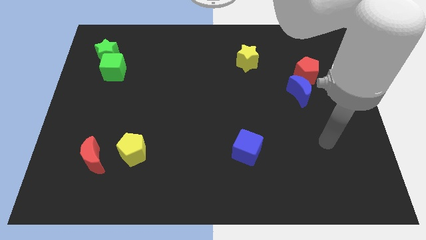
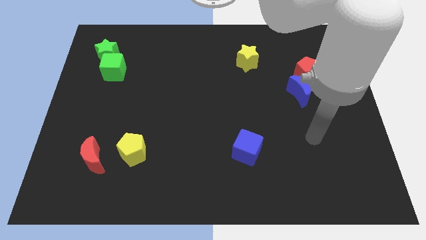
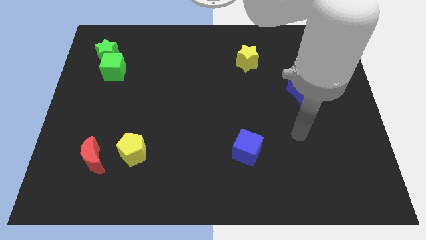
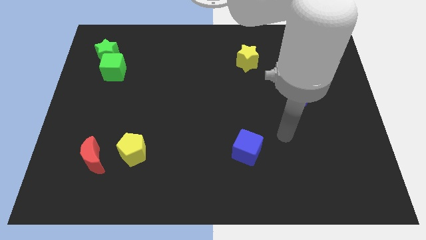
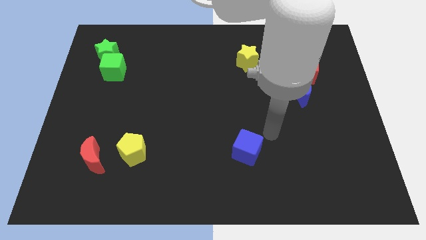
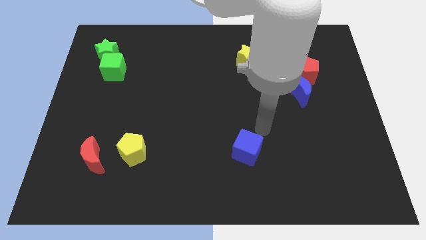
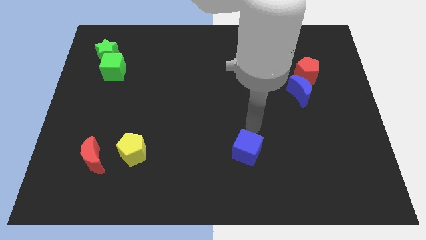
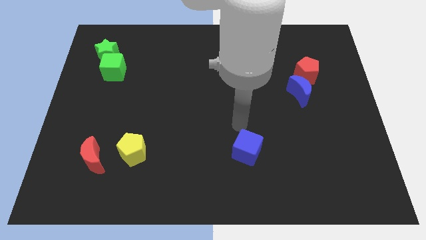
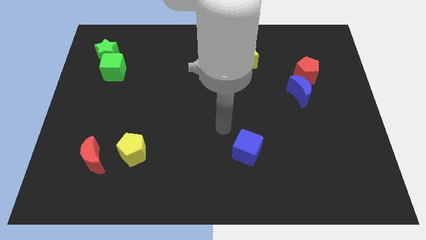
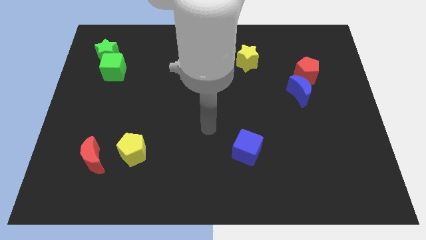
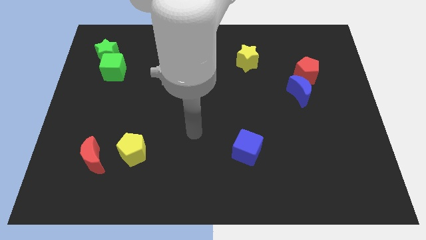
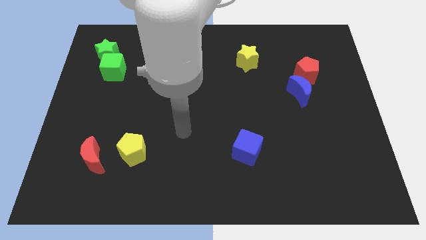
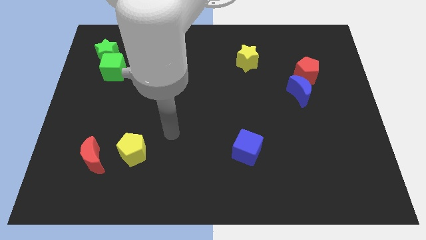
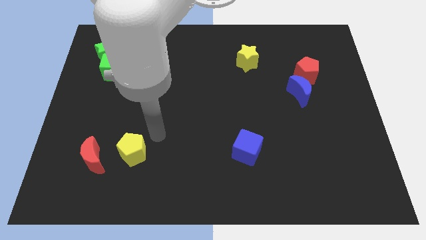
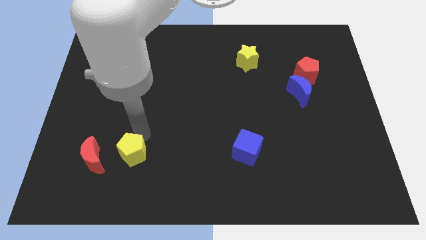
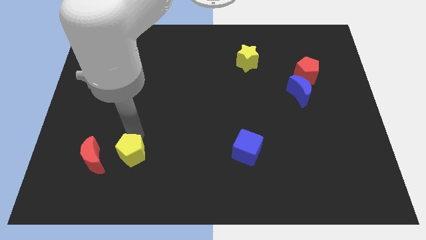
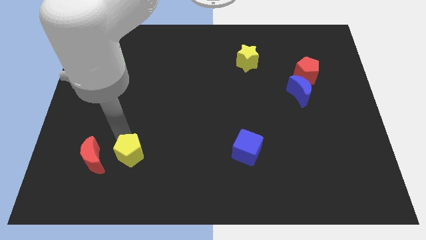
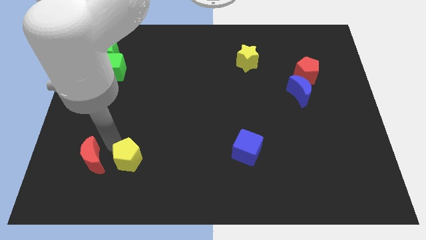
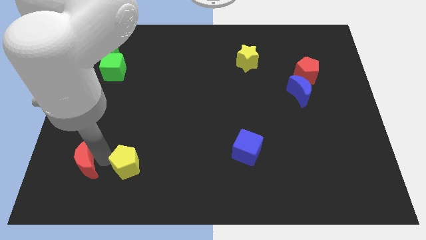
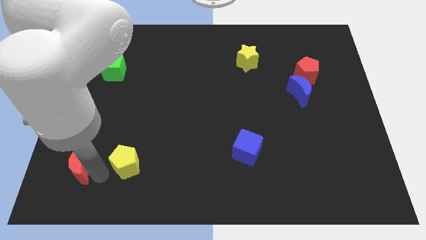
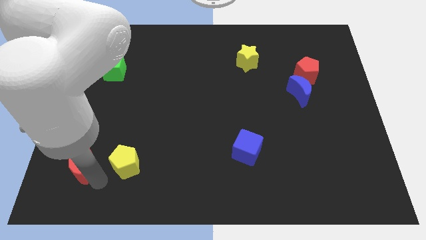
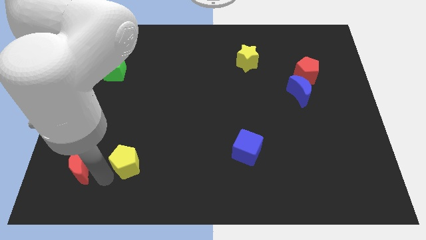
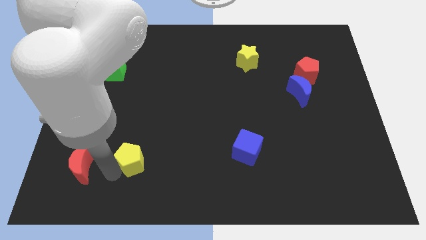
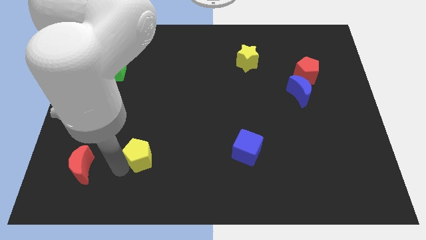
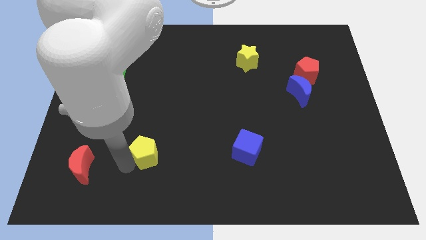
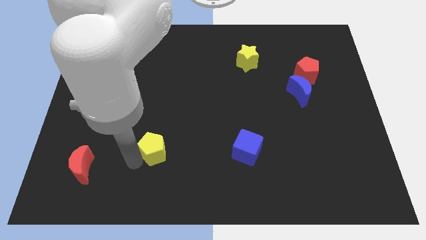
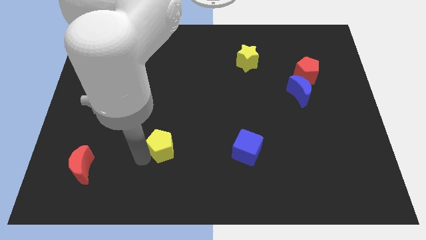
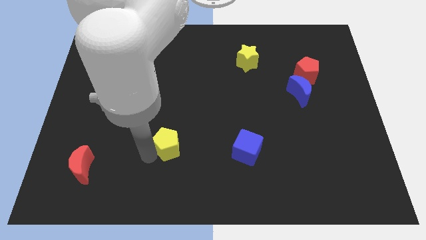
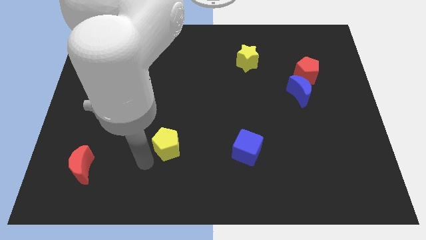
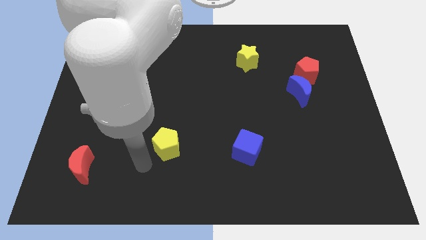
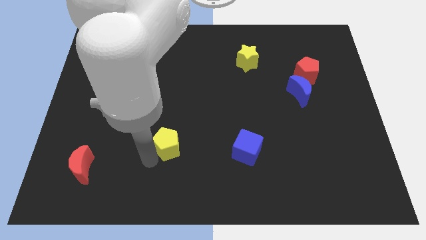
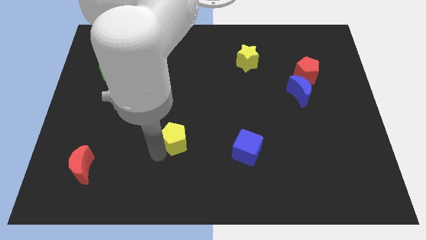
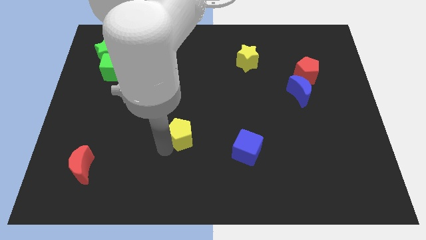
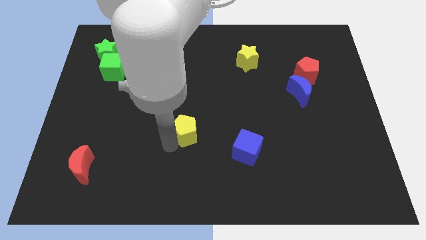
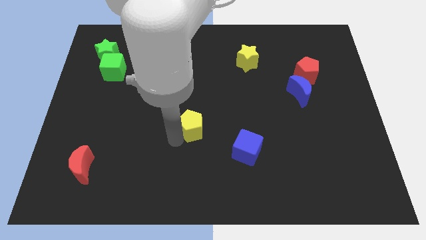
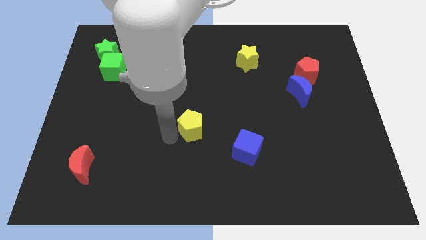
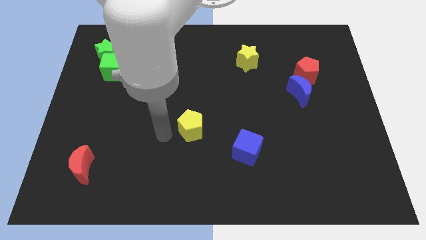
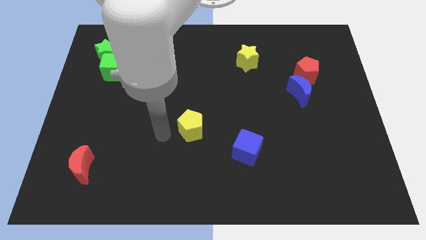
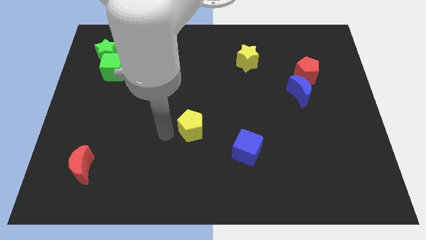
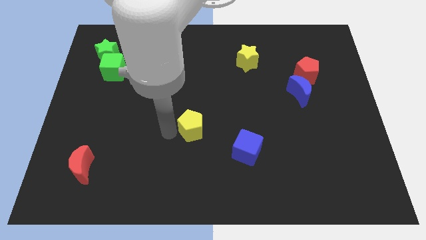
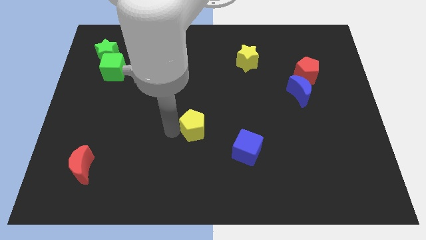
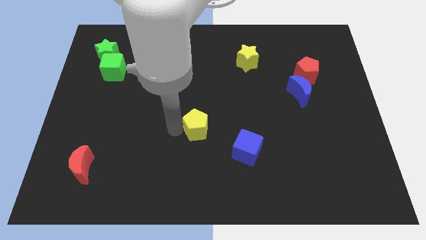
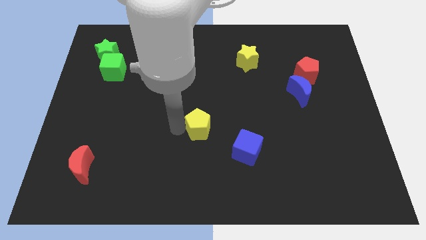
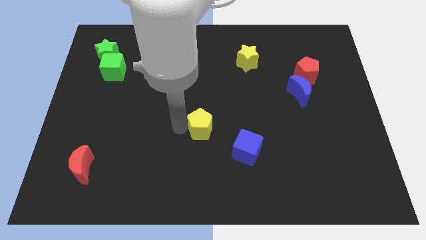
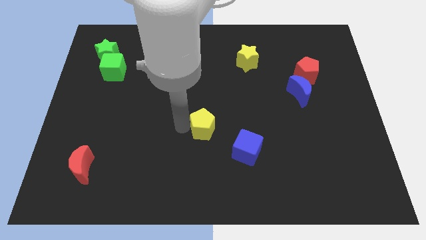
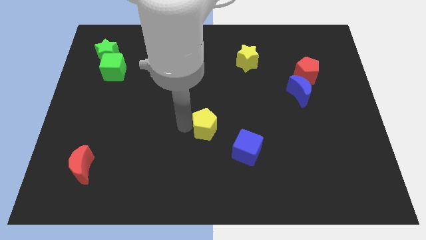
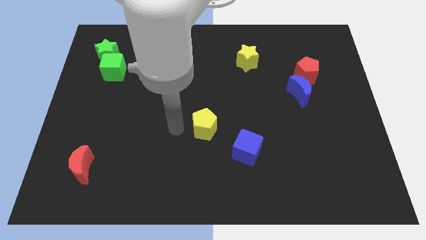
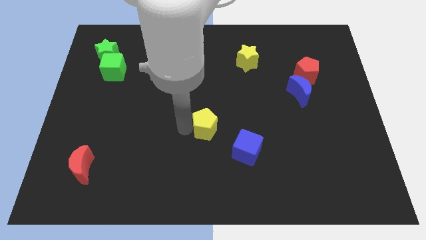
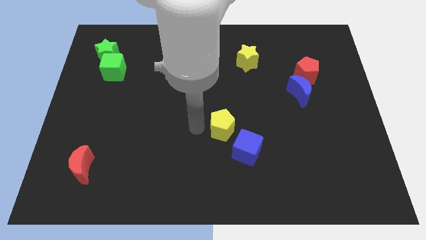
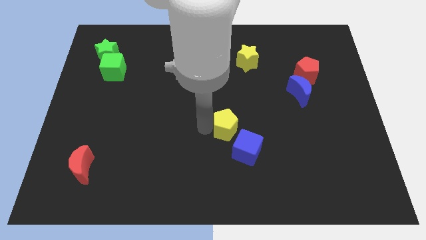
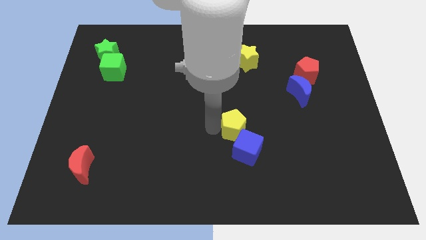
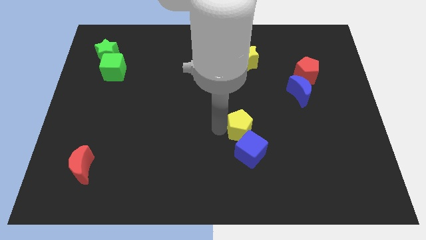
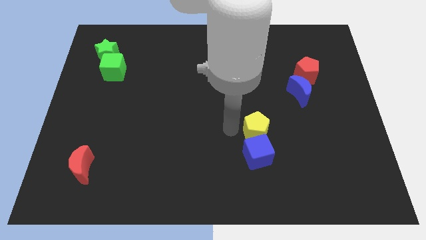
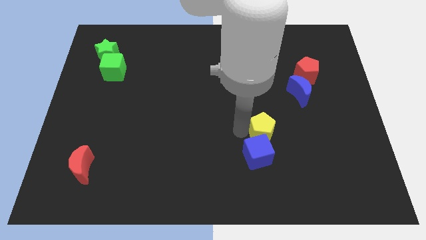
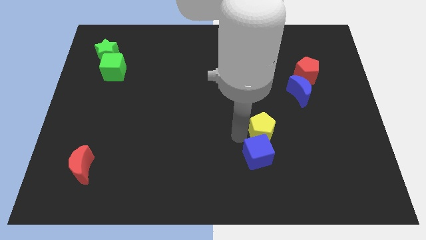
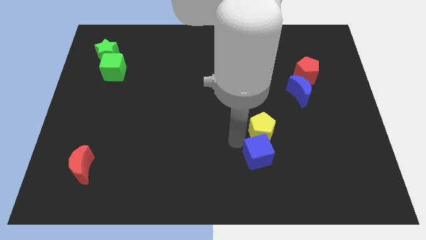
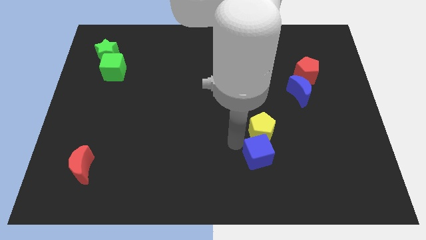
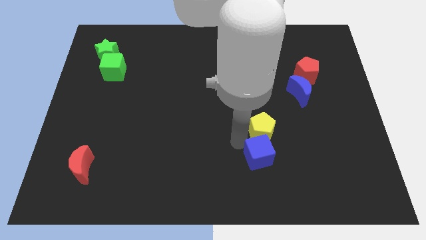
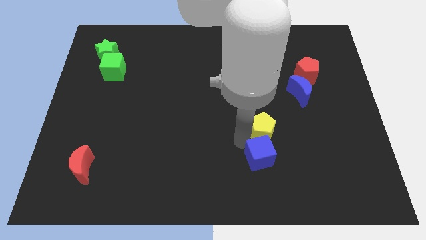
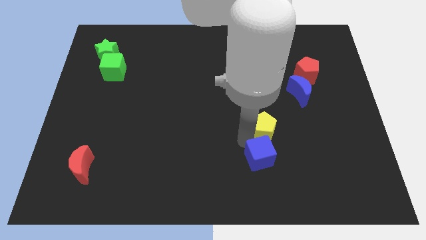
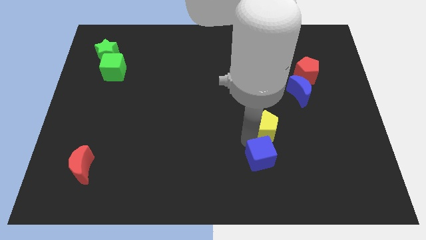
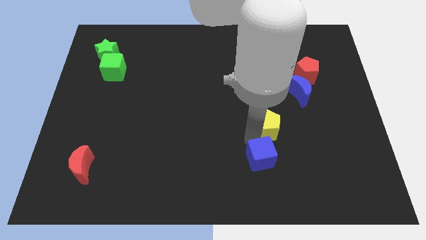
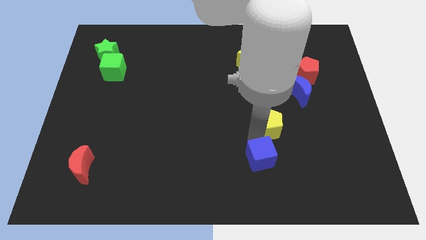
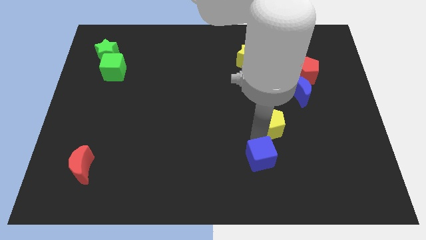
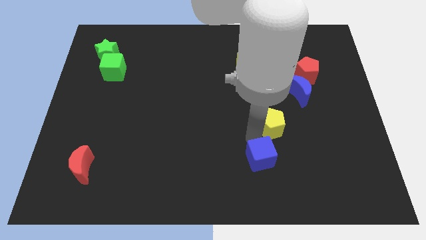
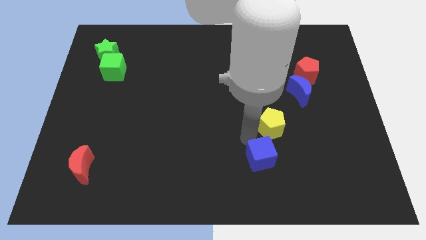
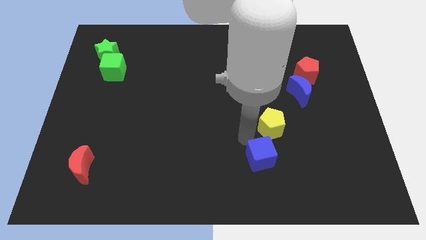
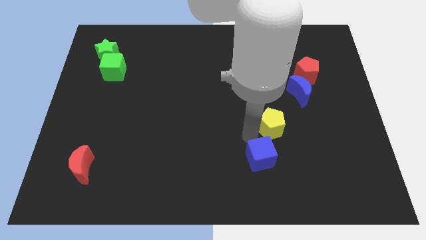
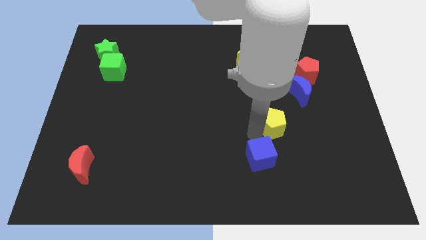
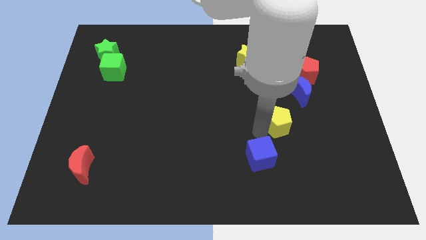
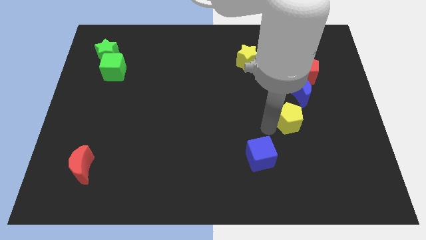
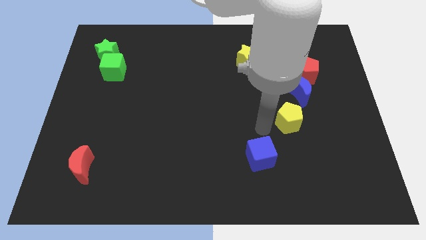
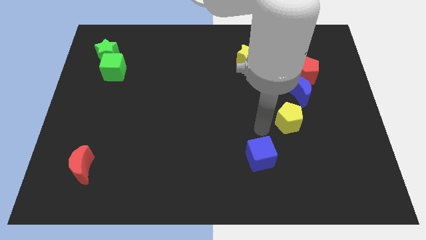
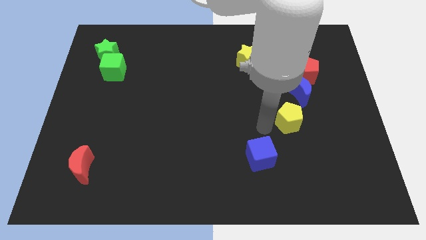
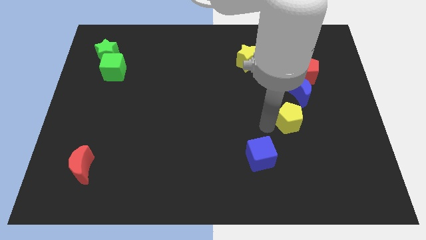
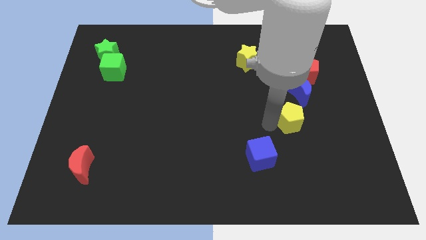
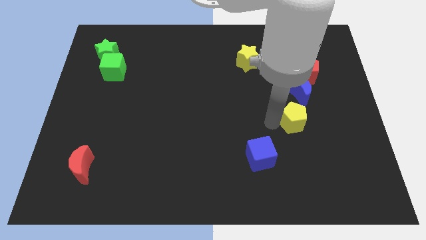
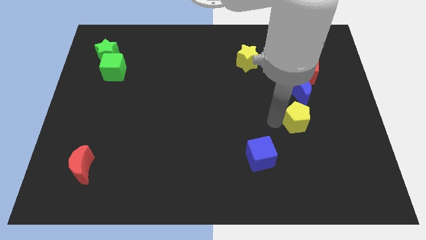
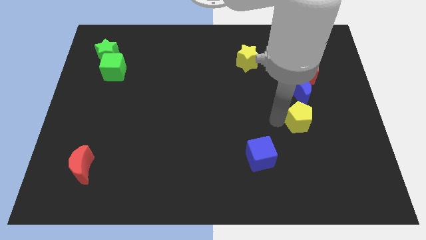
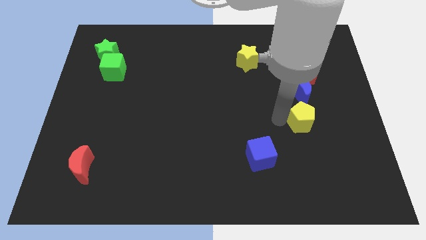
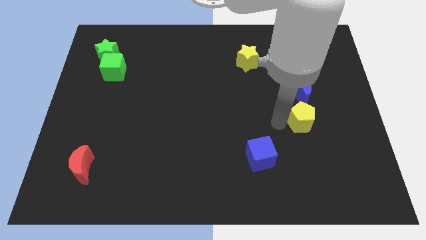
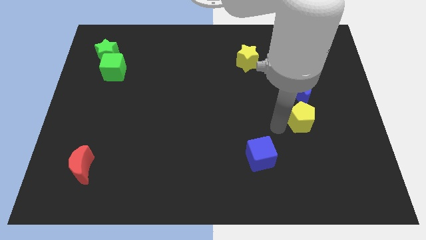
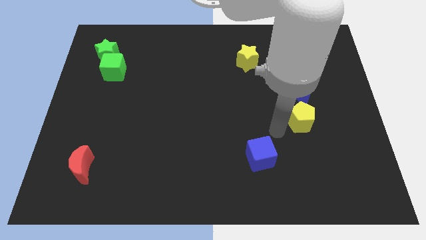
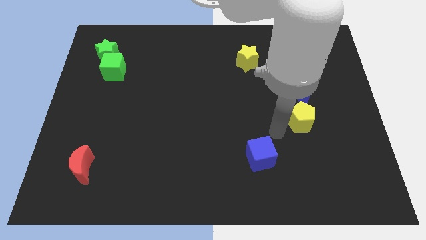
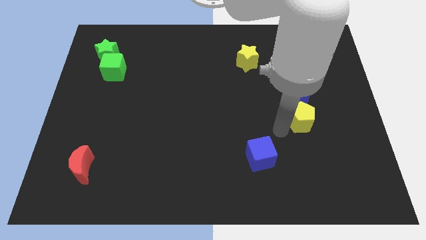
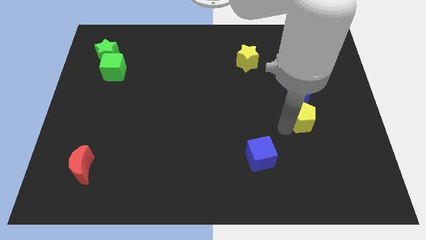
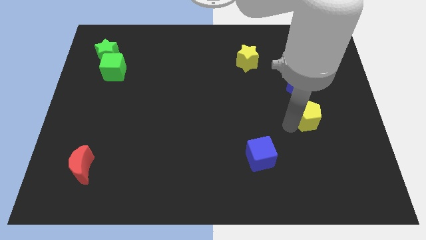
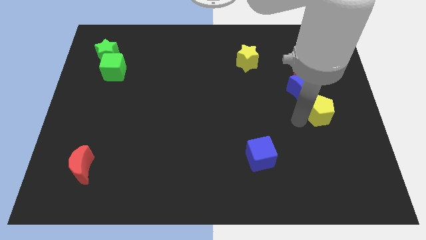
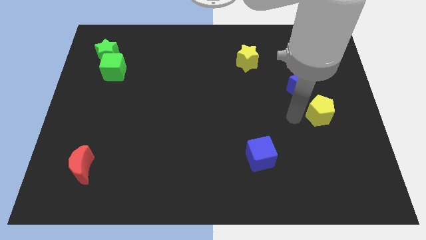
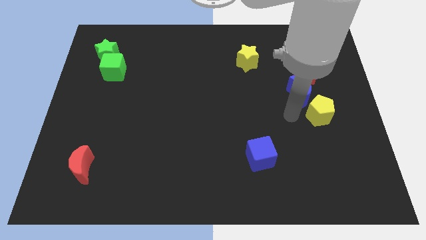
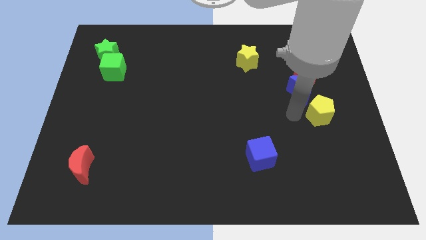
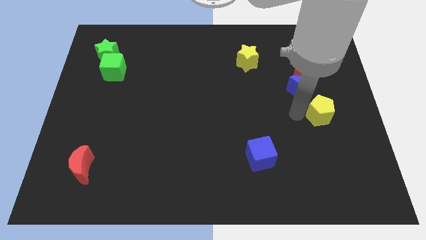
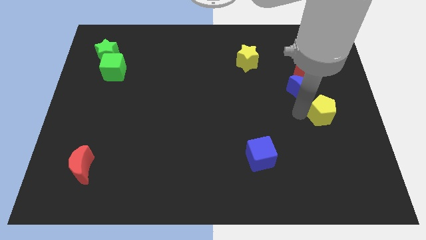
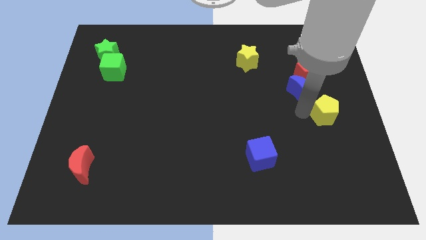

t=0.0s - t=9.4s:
put the yellow pentagon to the right side
